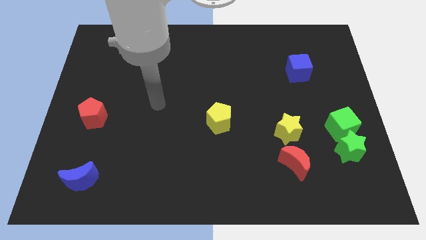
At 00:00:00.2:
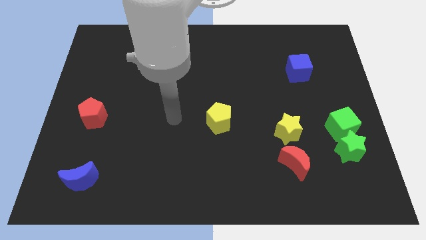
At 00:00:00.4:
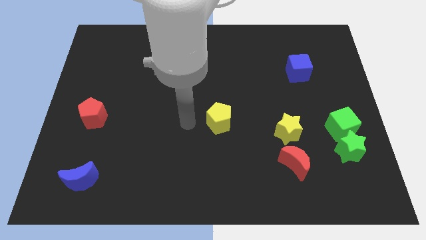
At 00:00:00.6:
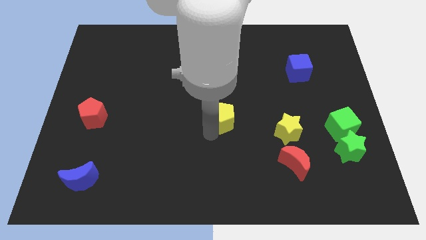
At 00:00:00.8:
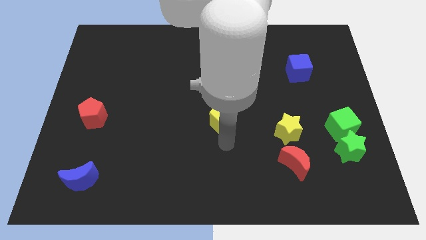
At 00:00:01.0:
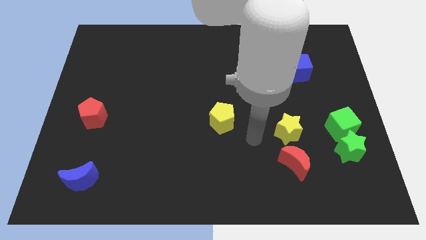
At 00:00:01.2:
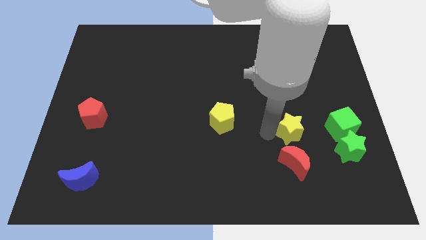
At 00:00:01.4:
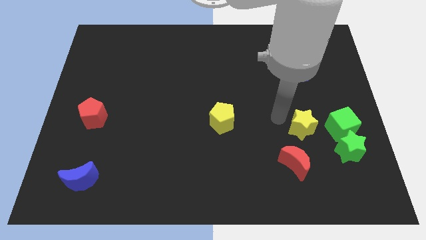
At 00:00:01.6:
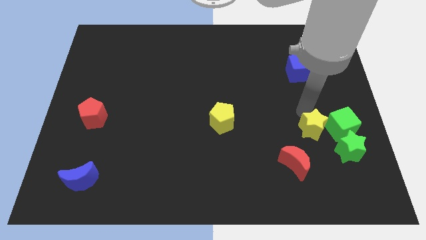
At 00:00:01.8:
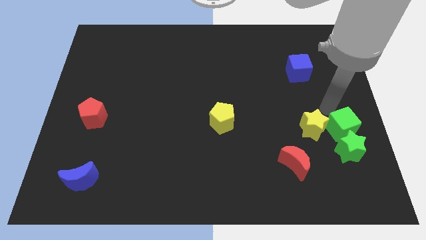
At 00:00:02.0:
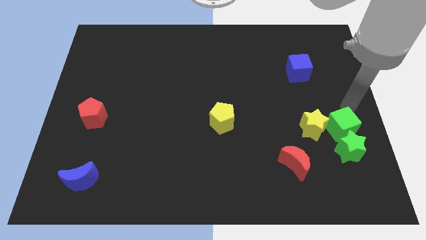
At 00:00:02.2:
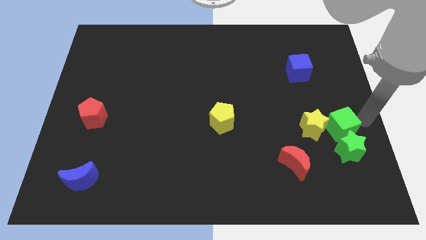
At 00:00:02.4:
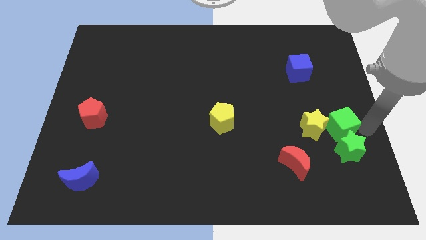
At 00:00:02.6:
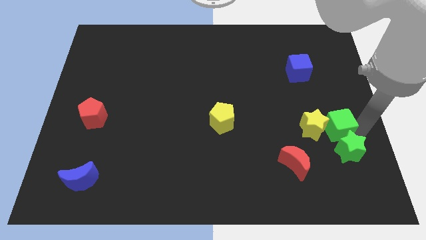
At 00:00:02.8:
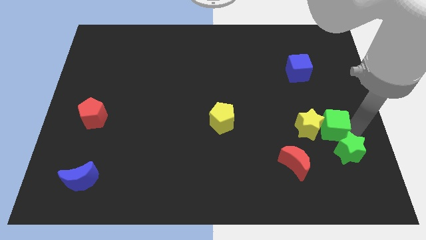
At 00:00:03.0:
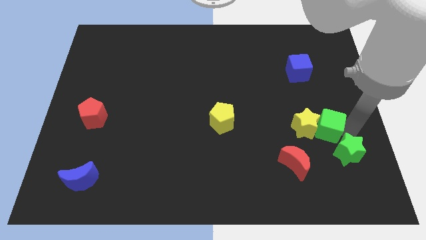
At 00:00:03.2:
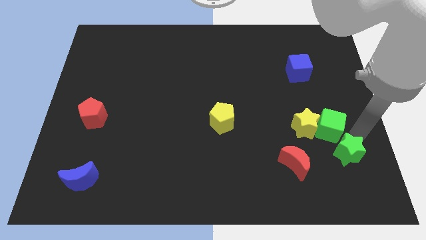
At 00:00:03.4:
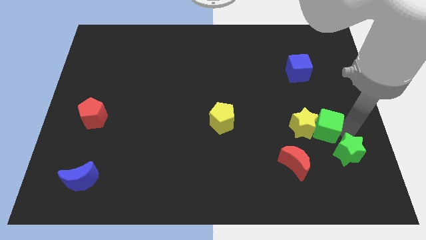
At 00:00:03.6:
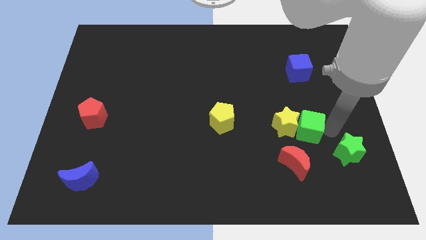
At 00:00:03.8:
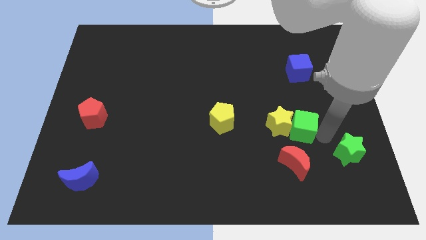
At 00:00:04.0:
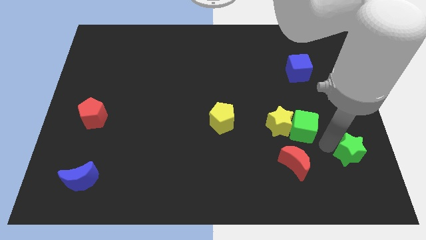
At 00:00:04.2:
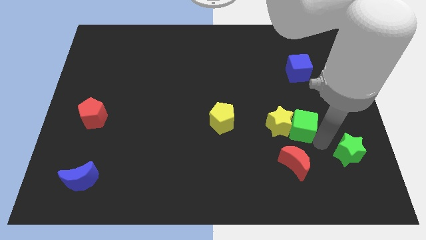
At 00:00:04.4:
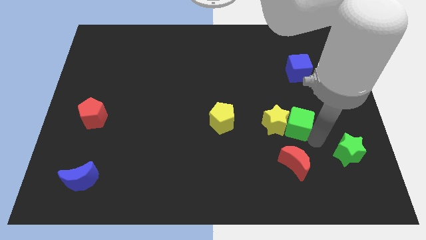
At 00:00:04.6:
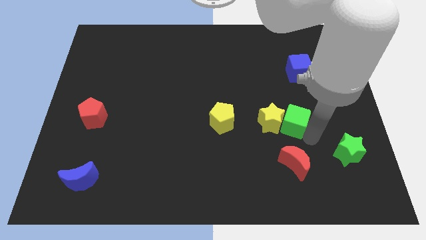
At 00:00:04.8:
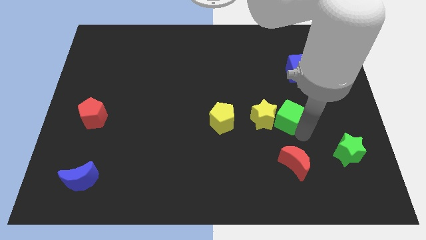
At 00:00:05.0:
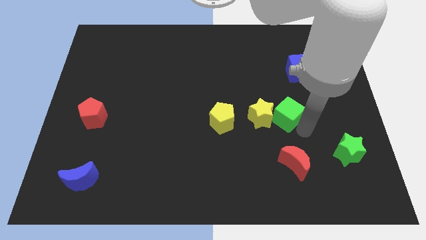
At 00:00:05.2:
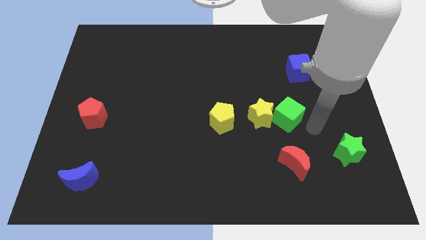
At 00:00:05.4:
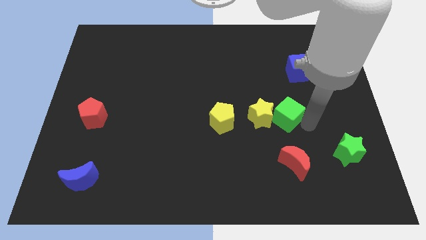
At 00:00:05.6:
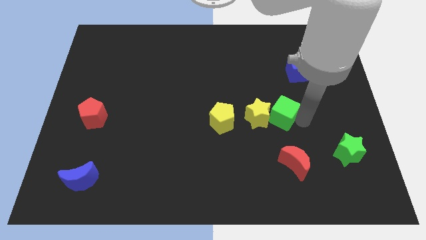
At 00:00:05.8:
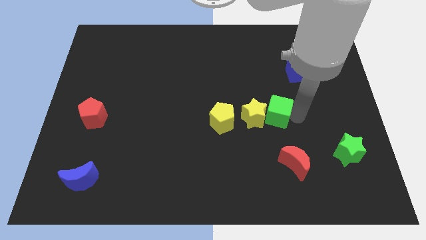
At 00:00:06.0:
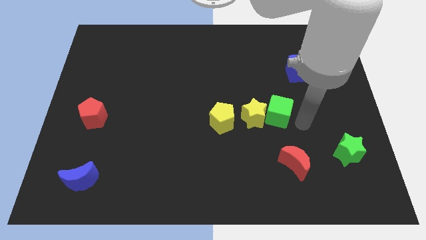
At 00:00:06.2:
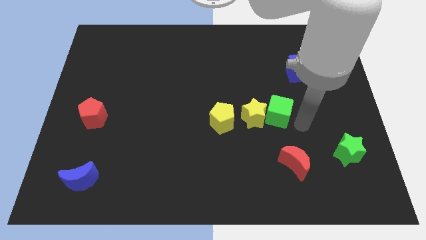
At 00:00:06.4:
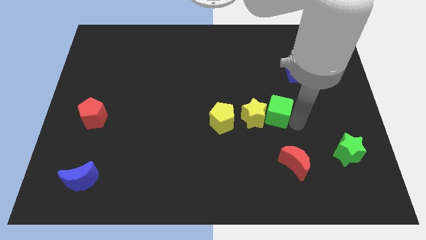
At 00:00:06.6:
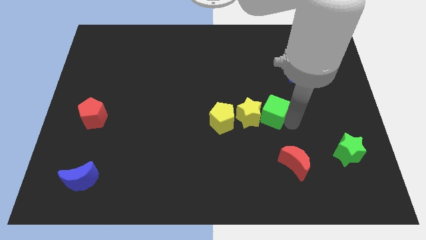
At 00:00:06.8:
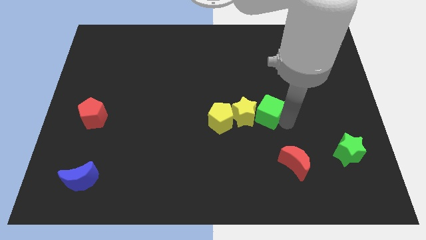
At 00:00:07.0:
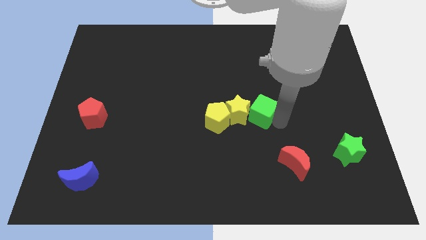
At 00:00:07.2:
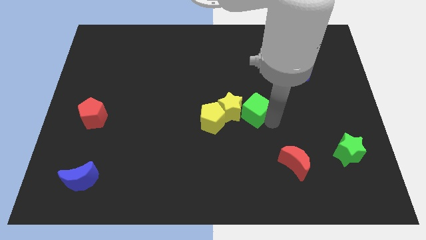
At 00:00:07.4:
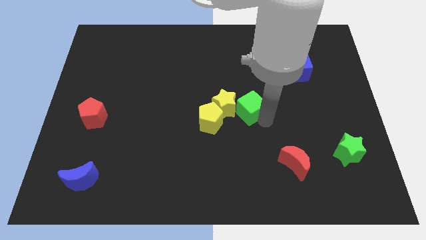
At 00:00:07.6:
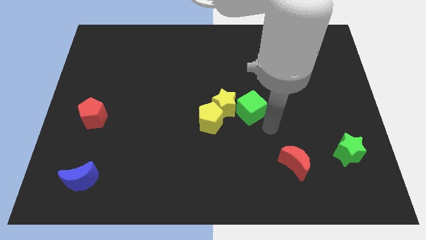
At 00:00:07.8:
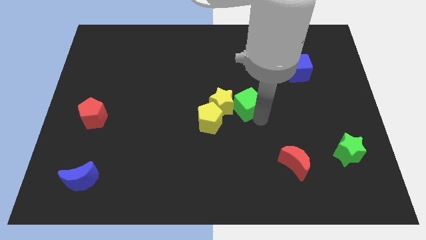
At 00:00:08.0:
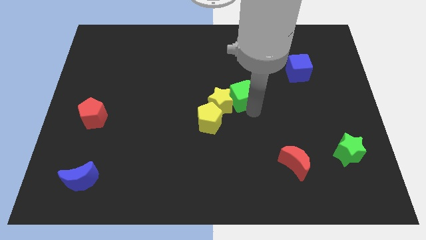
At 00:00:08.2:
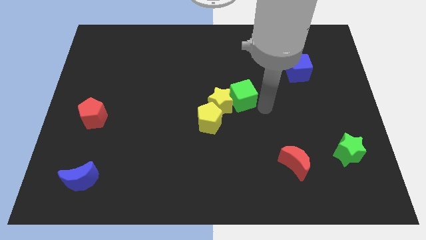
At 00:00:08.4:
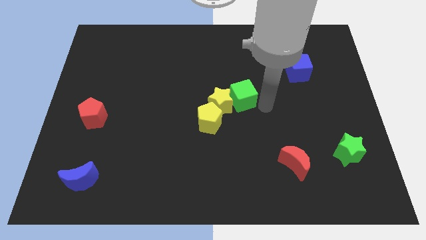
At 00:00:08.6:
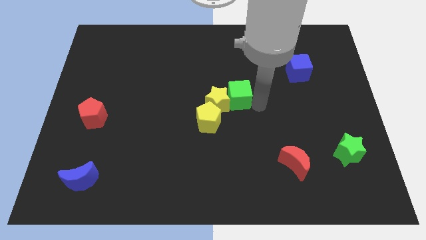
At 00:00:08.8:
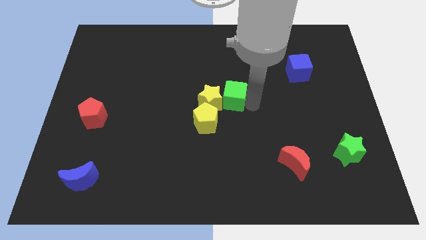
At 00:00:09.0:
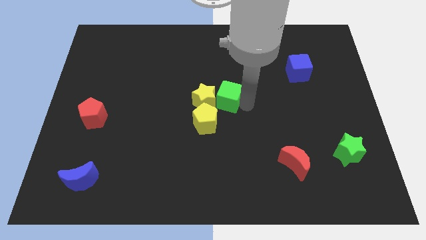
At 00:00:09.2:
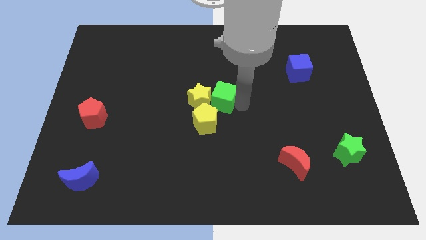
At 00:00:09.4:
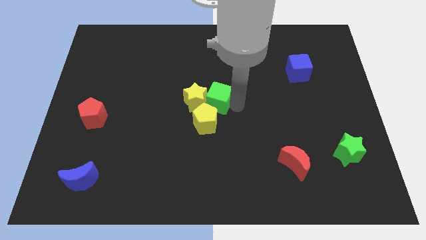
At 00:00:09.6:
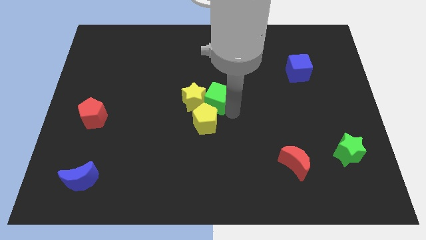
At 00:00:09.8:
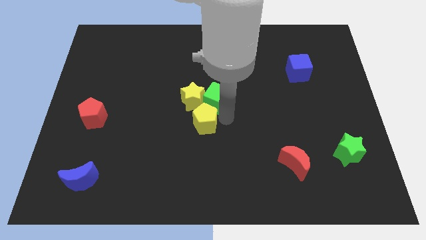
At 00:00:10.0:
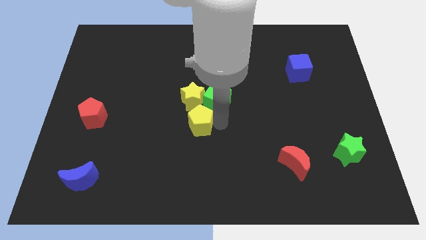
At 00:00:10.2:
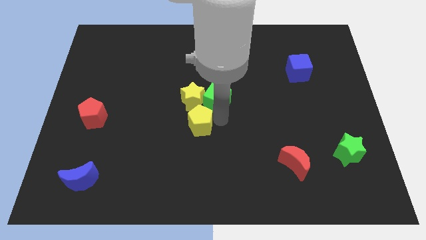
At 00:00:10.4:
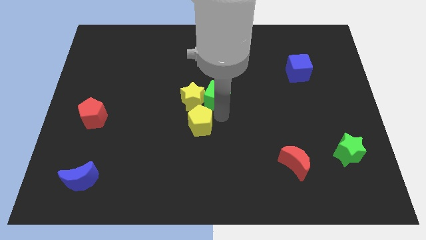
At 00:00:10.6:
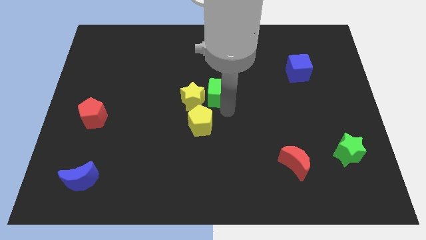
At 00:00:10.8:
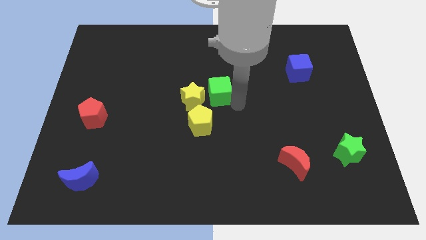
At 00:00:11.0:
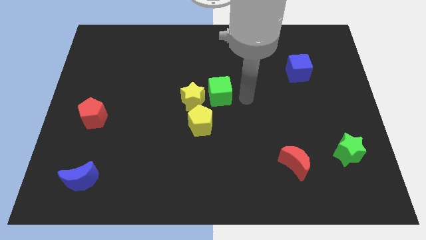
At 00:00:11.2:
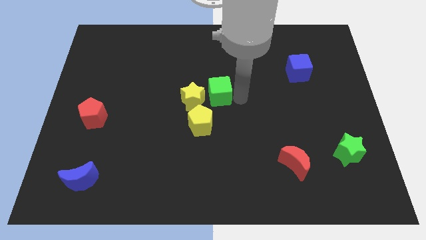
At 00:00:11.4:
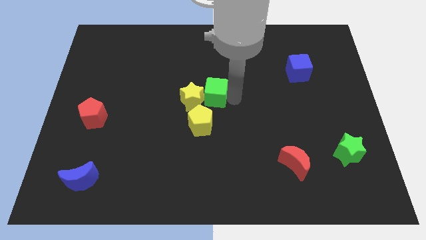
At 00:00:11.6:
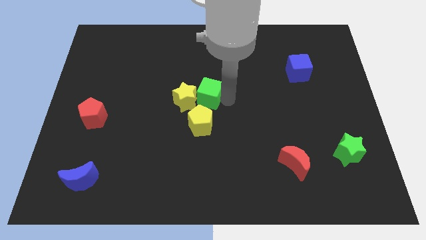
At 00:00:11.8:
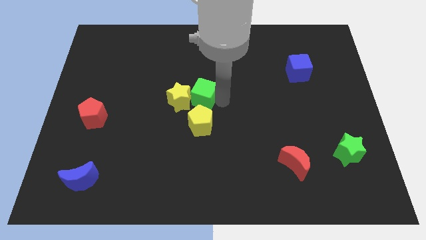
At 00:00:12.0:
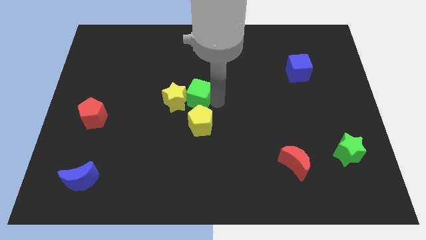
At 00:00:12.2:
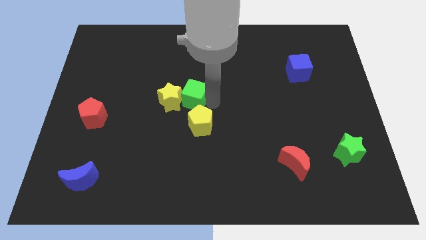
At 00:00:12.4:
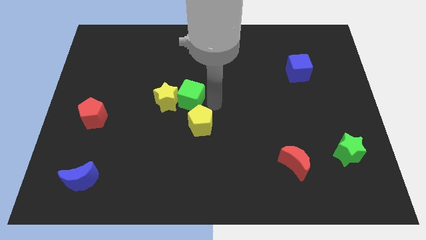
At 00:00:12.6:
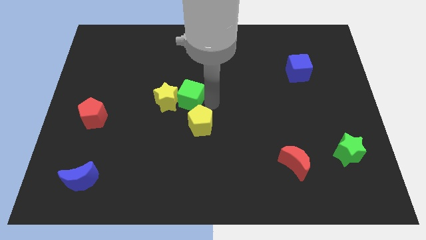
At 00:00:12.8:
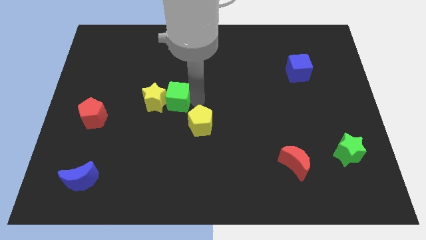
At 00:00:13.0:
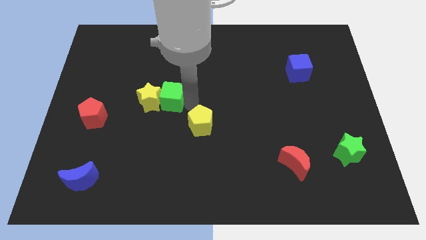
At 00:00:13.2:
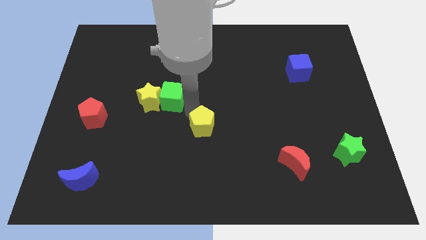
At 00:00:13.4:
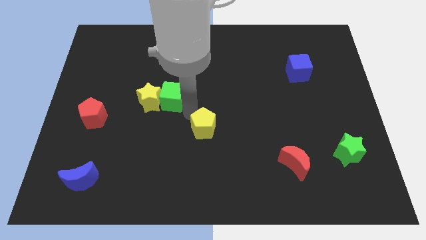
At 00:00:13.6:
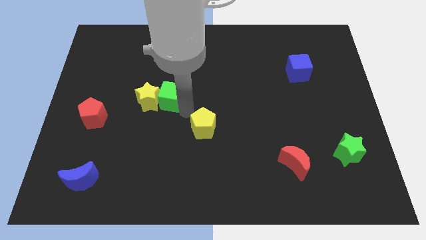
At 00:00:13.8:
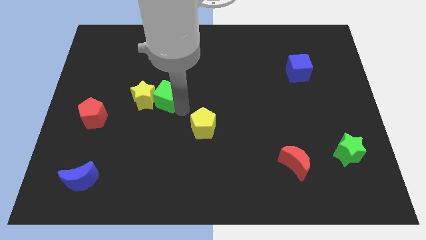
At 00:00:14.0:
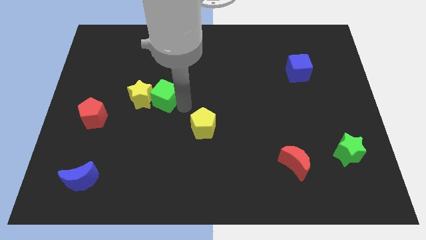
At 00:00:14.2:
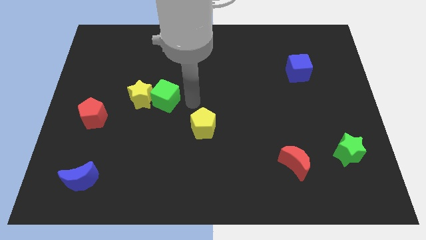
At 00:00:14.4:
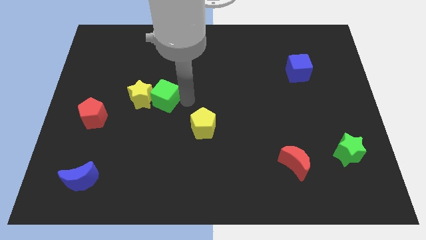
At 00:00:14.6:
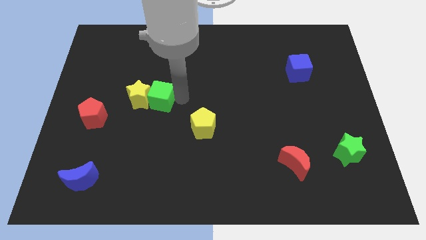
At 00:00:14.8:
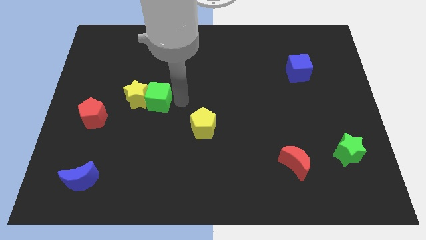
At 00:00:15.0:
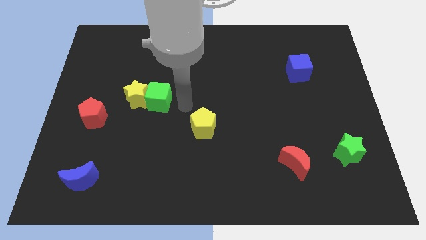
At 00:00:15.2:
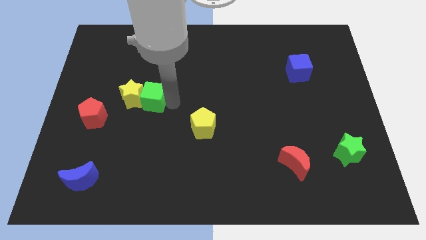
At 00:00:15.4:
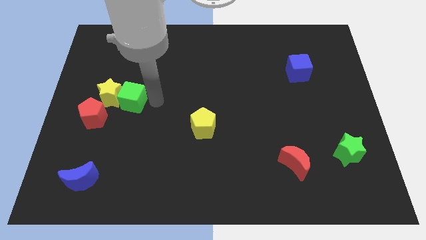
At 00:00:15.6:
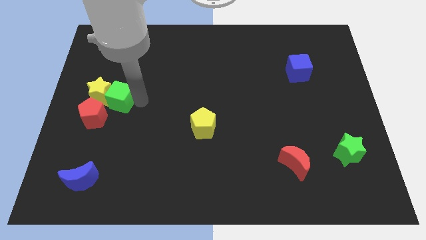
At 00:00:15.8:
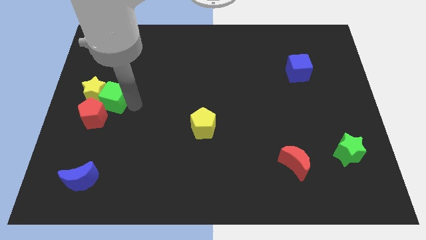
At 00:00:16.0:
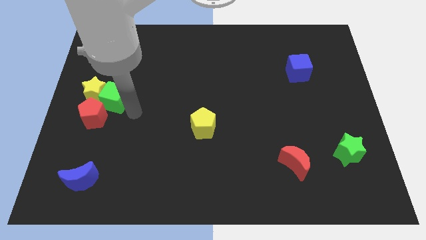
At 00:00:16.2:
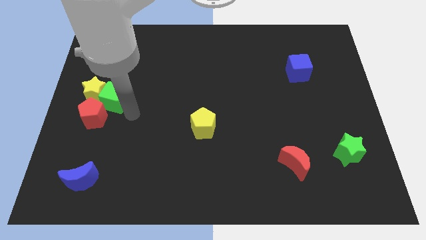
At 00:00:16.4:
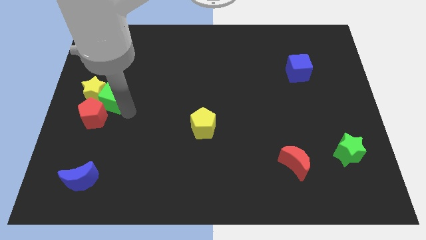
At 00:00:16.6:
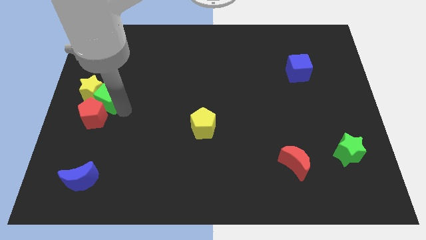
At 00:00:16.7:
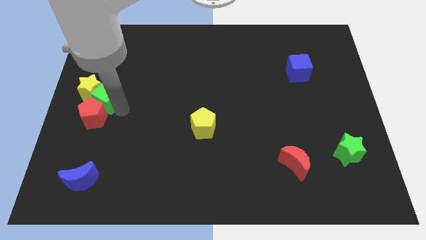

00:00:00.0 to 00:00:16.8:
push the green cube to the left side
